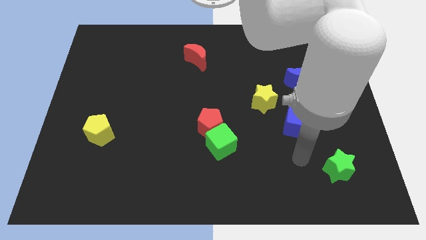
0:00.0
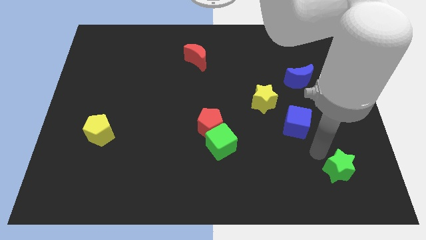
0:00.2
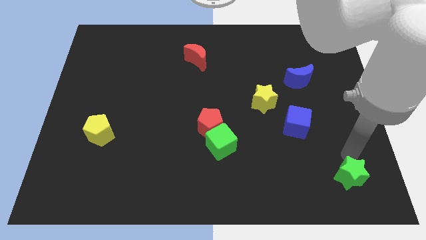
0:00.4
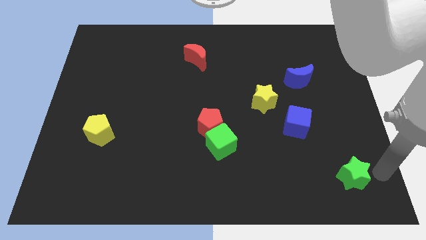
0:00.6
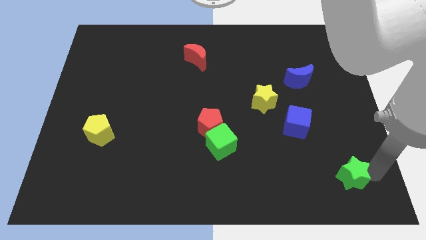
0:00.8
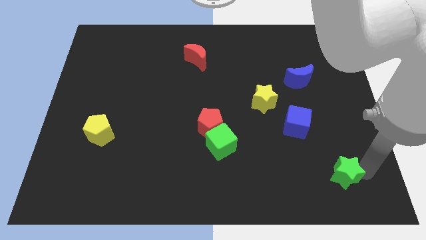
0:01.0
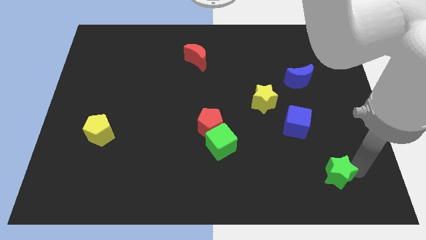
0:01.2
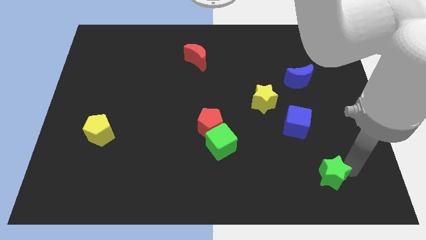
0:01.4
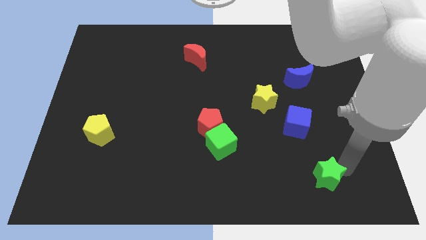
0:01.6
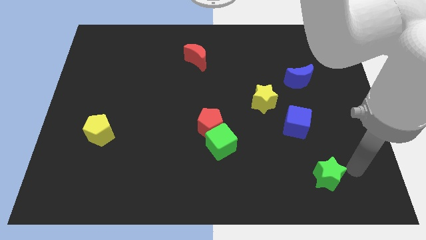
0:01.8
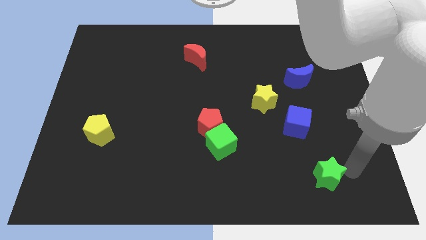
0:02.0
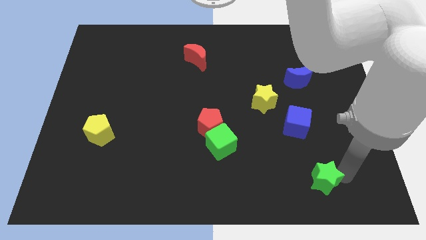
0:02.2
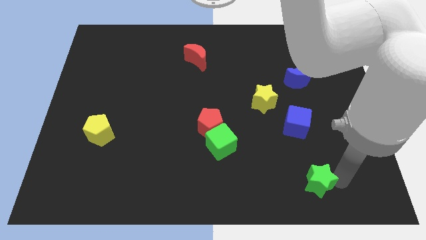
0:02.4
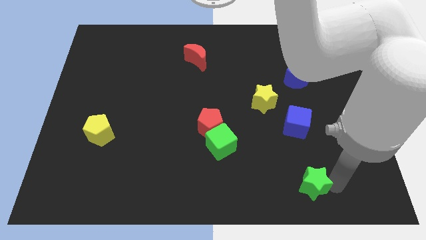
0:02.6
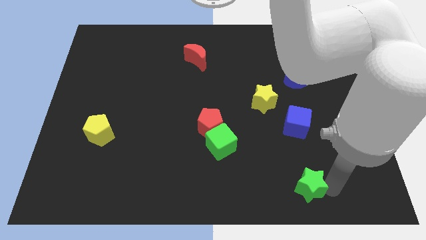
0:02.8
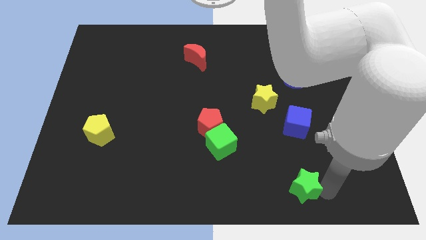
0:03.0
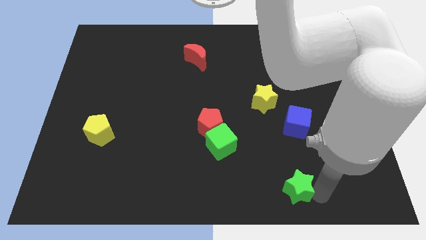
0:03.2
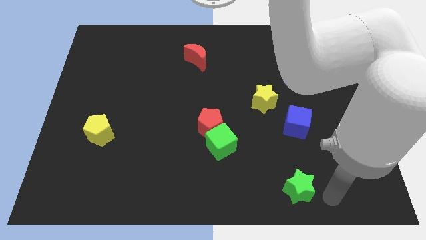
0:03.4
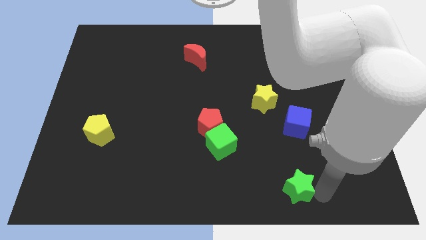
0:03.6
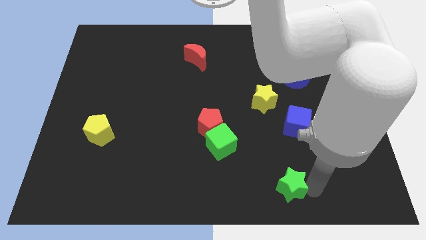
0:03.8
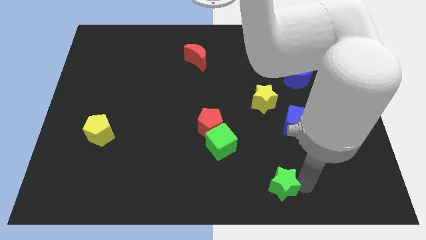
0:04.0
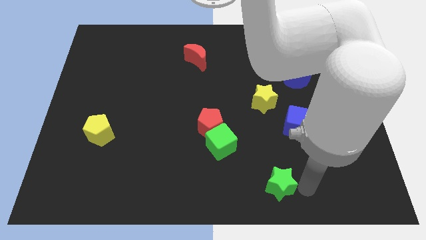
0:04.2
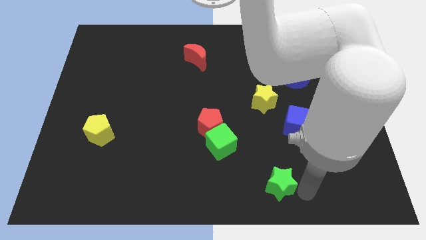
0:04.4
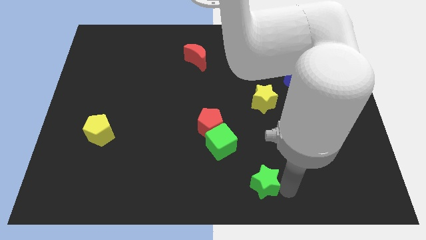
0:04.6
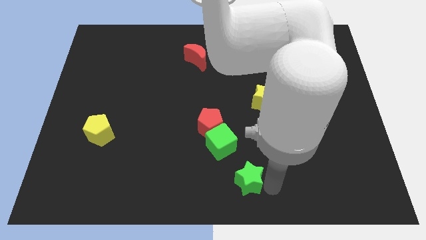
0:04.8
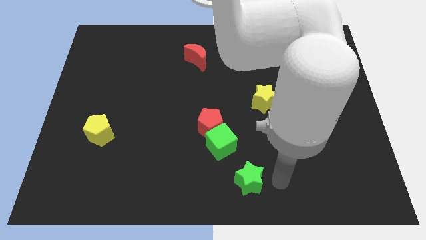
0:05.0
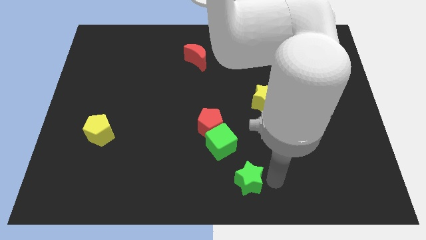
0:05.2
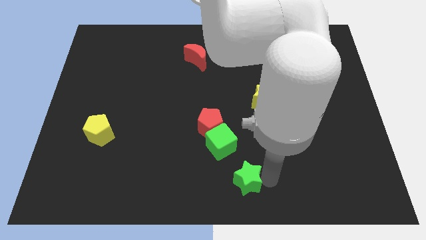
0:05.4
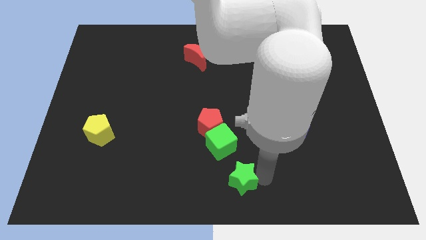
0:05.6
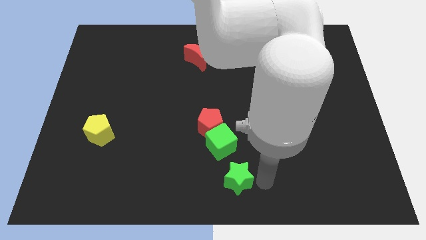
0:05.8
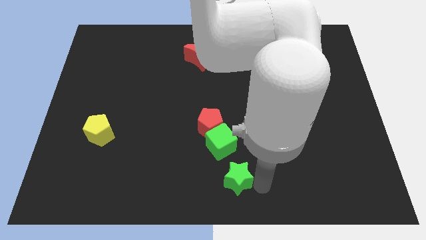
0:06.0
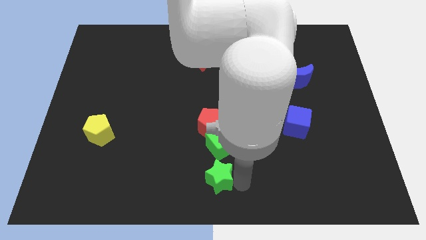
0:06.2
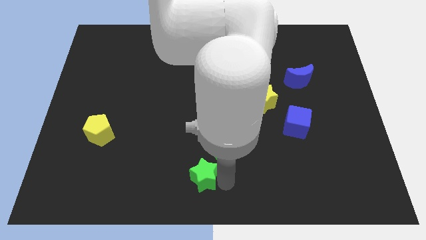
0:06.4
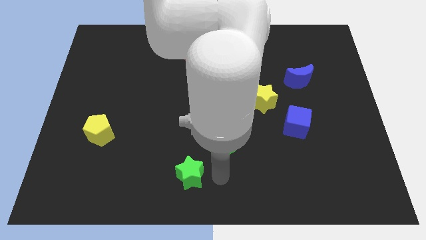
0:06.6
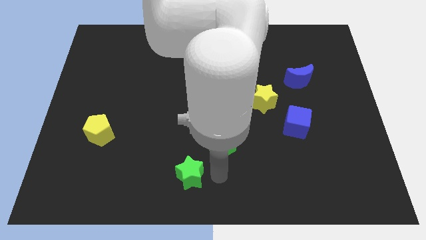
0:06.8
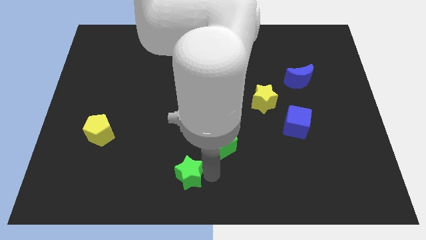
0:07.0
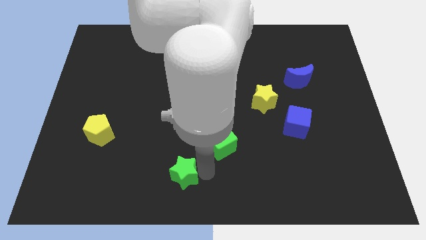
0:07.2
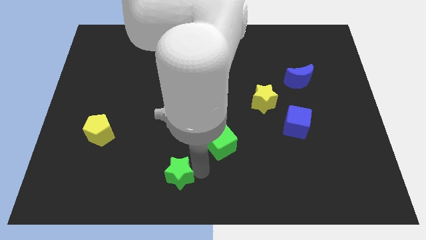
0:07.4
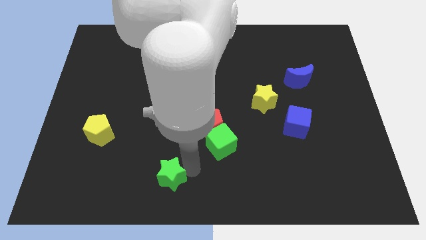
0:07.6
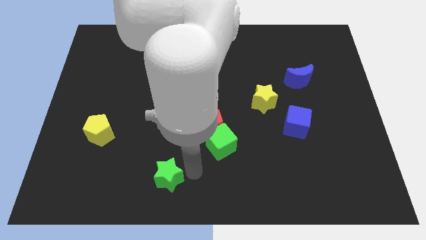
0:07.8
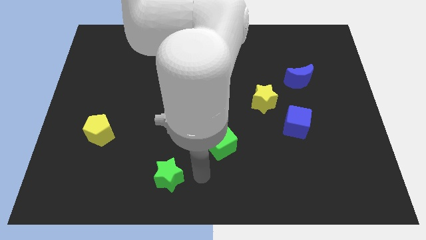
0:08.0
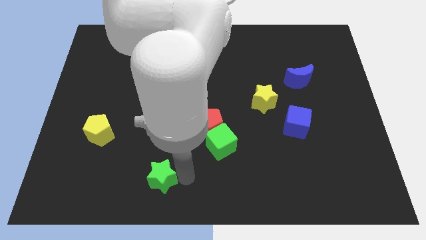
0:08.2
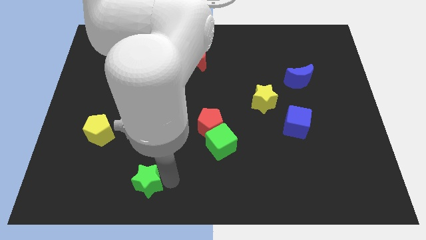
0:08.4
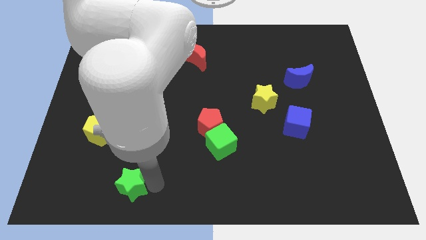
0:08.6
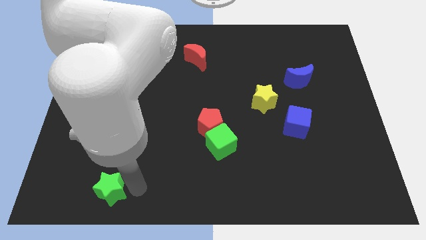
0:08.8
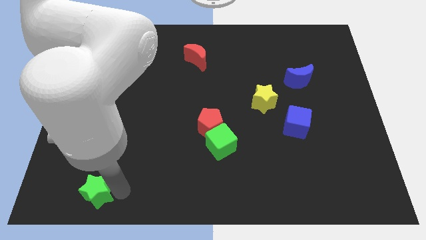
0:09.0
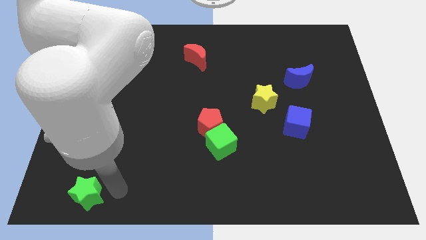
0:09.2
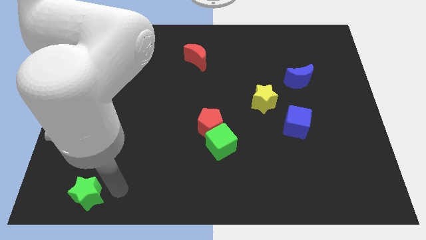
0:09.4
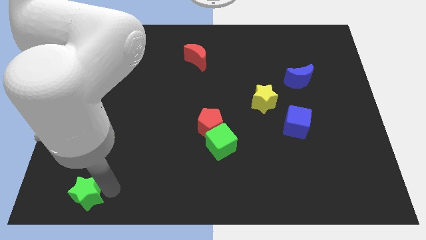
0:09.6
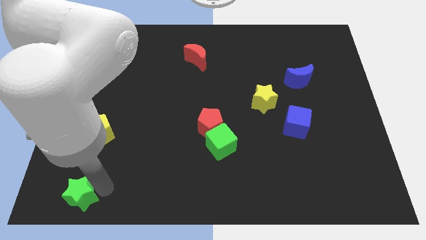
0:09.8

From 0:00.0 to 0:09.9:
push the green star to the bottom left

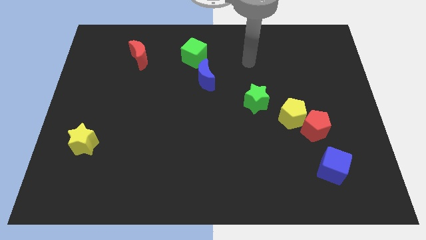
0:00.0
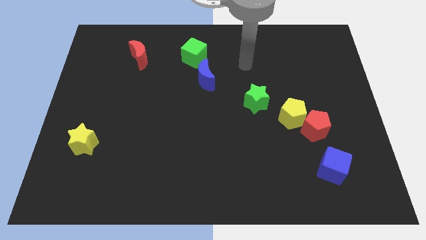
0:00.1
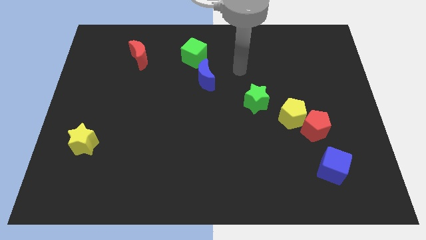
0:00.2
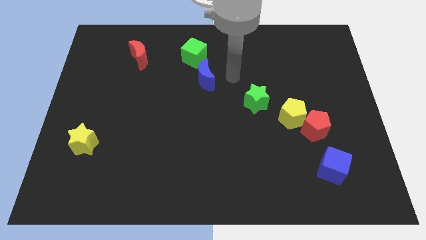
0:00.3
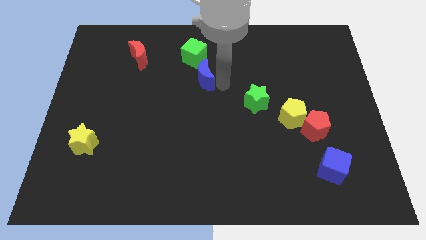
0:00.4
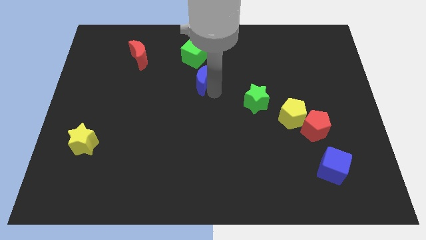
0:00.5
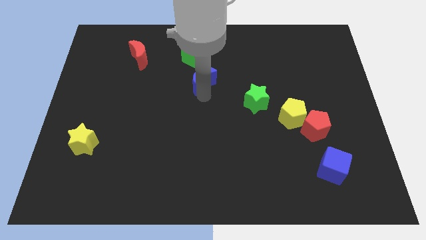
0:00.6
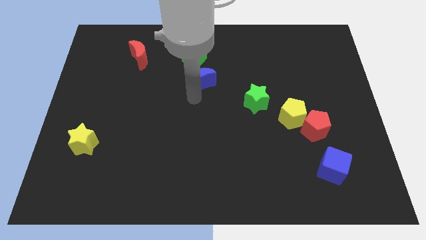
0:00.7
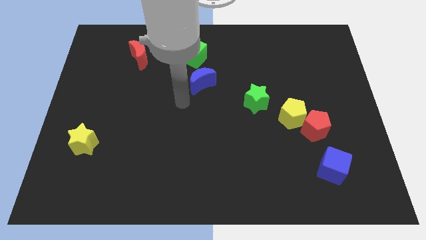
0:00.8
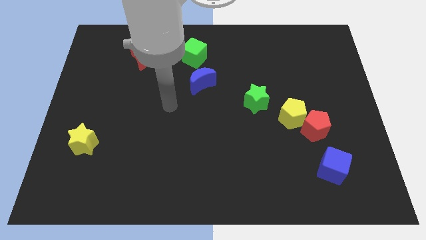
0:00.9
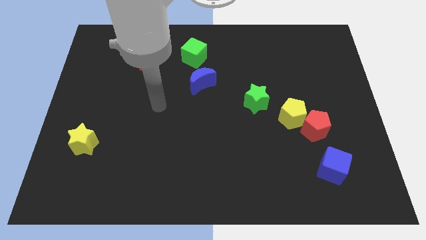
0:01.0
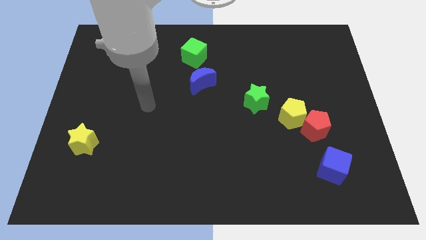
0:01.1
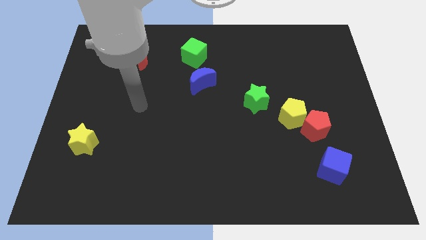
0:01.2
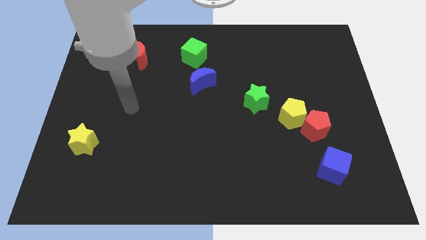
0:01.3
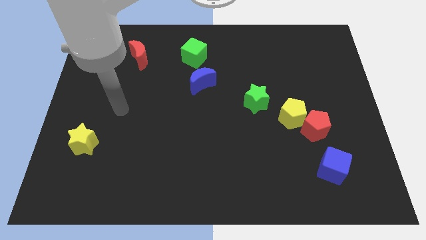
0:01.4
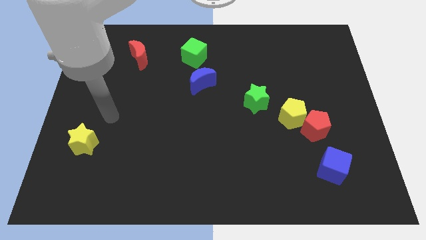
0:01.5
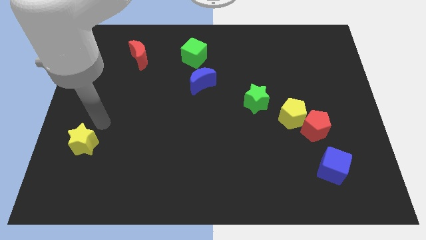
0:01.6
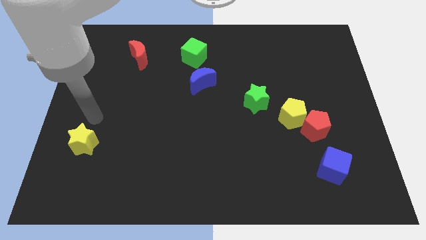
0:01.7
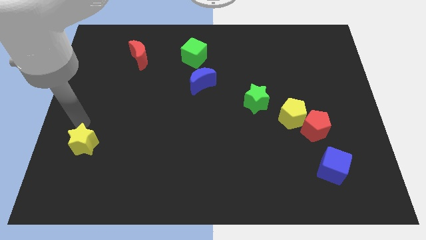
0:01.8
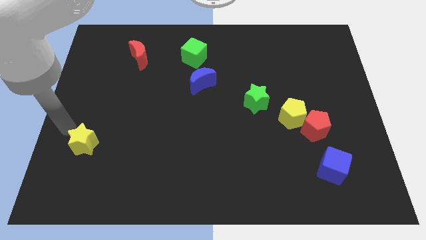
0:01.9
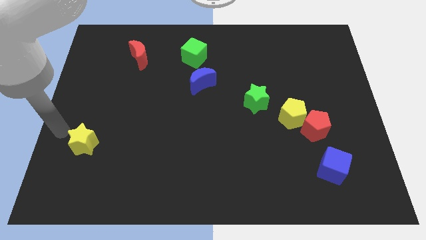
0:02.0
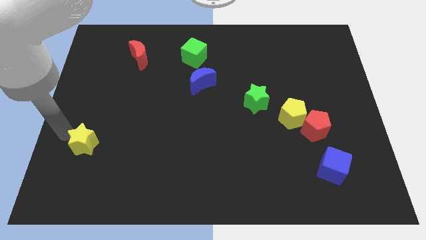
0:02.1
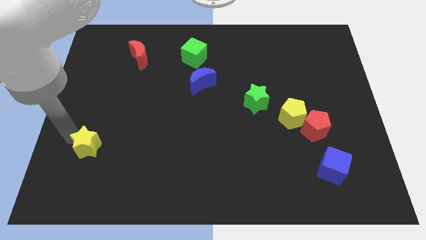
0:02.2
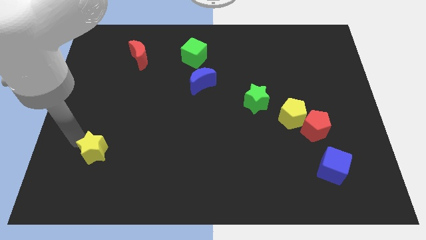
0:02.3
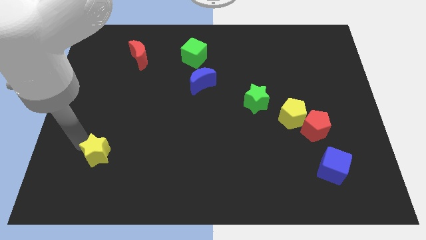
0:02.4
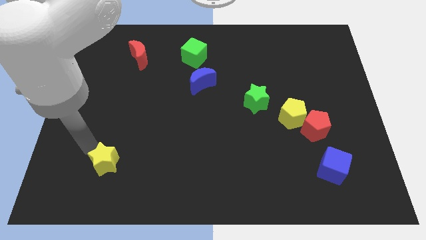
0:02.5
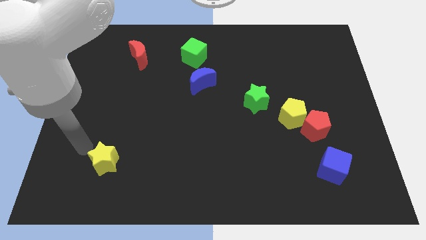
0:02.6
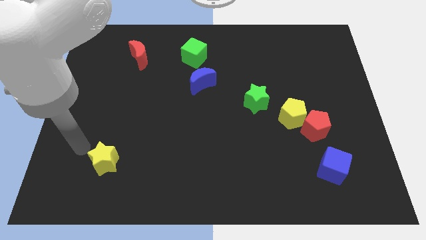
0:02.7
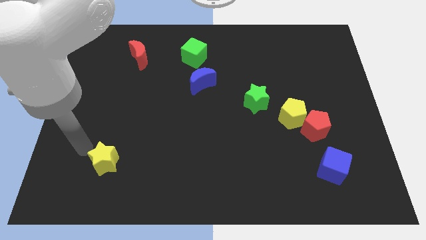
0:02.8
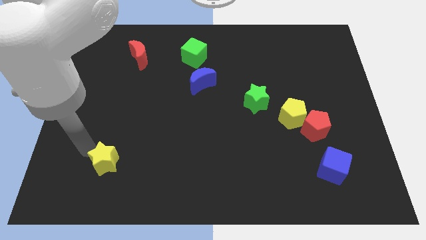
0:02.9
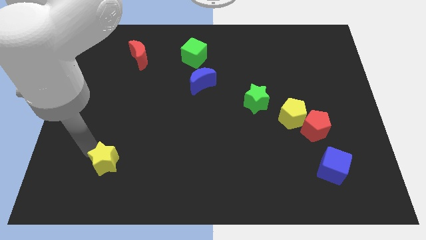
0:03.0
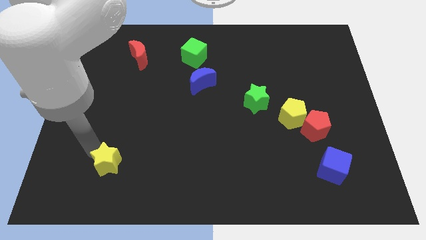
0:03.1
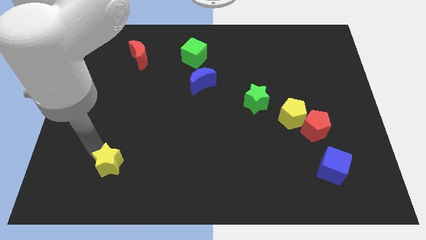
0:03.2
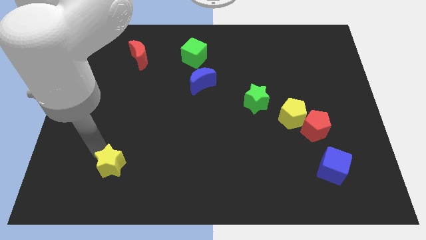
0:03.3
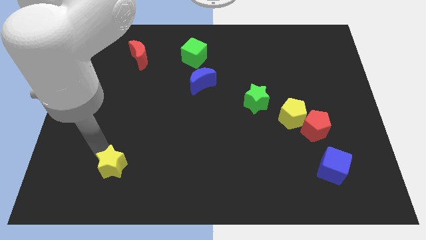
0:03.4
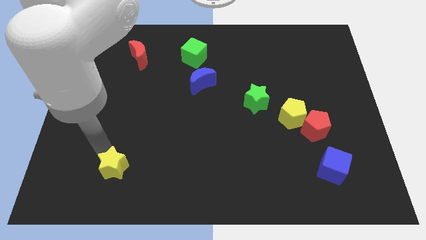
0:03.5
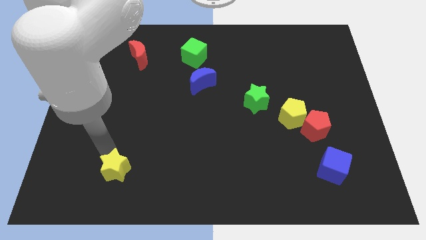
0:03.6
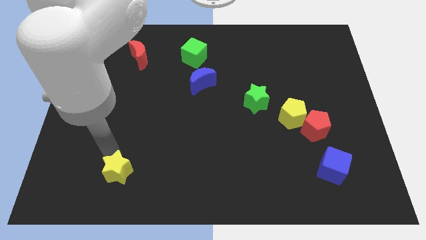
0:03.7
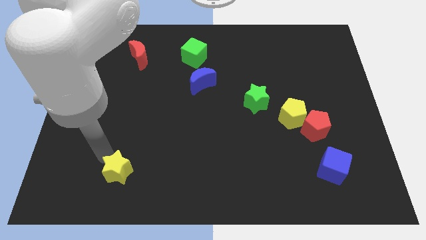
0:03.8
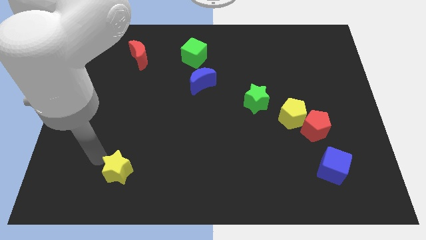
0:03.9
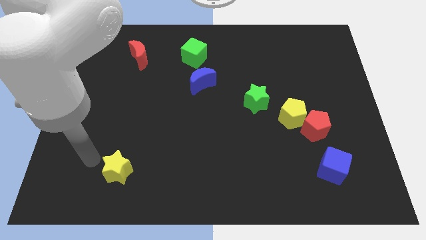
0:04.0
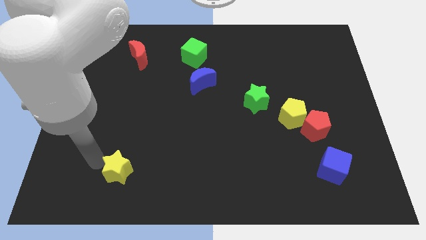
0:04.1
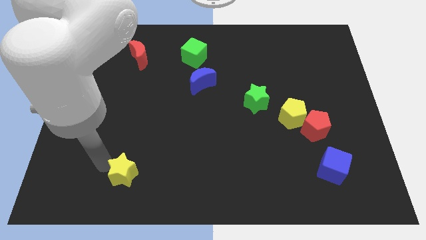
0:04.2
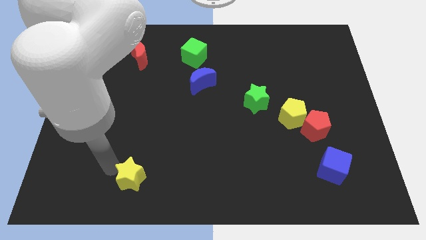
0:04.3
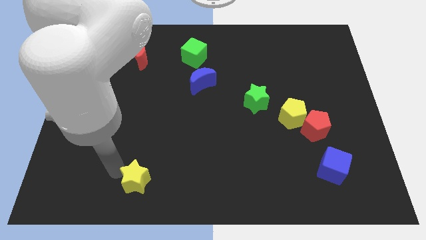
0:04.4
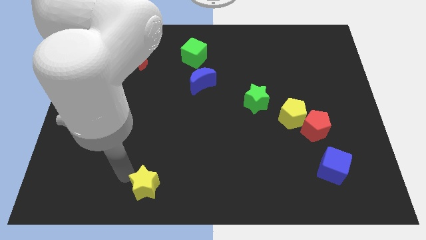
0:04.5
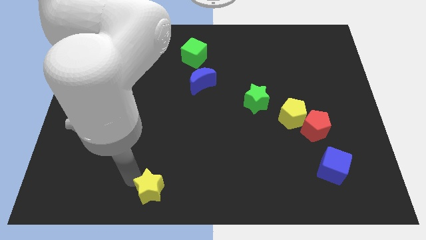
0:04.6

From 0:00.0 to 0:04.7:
push the yellow star to the bottom
